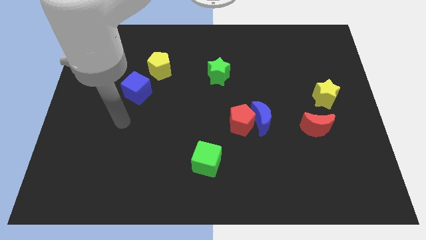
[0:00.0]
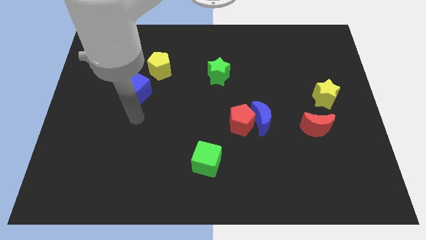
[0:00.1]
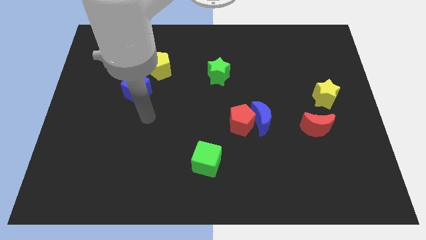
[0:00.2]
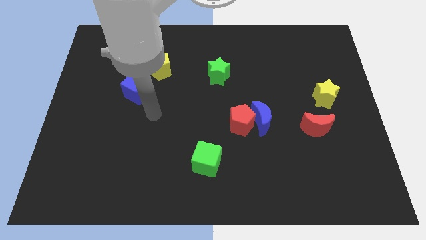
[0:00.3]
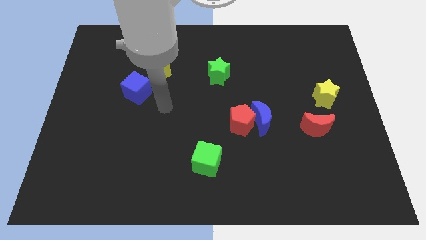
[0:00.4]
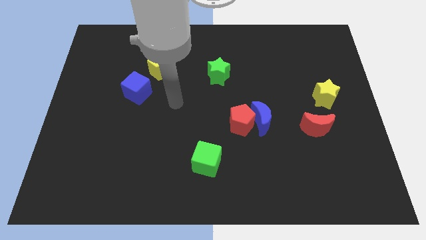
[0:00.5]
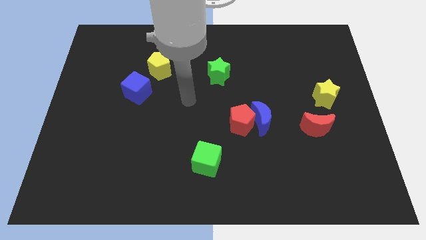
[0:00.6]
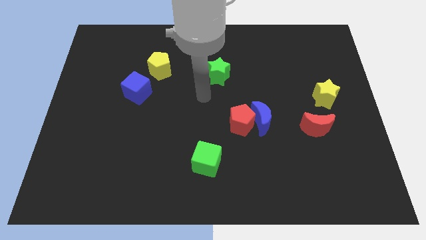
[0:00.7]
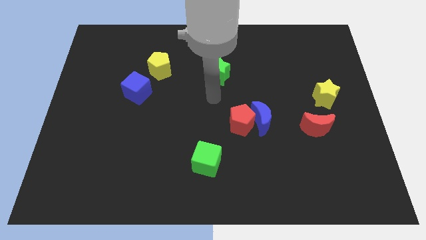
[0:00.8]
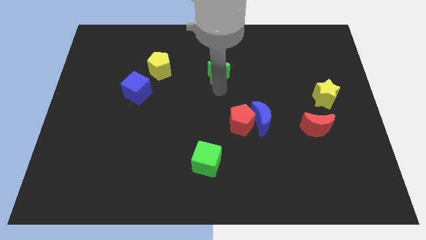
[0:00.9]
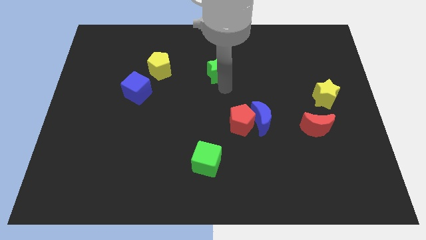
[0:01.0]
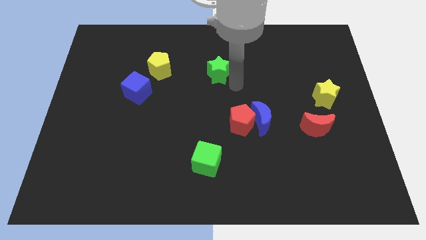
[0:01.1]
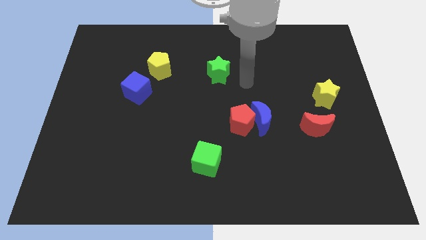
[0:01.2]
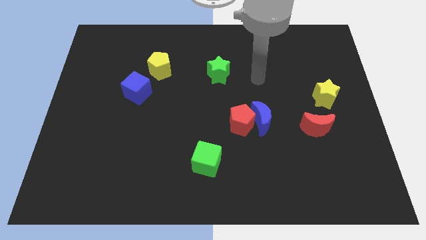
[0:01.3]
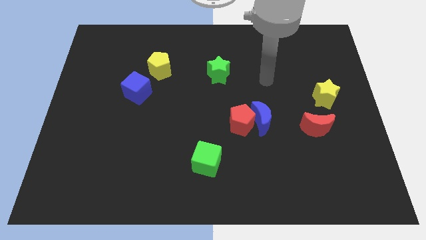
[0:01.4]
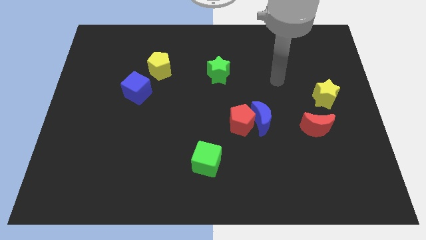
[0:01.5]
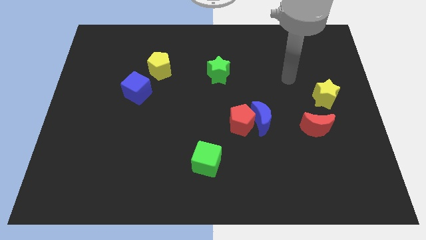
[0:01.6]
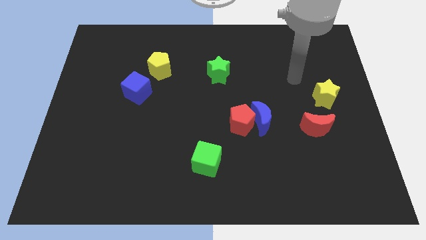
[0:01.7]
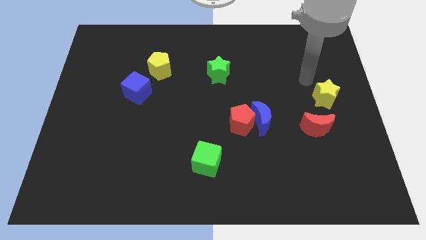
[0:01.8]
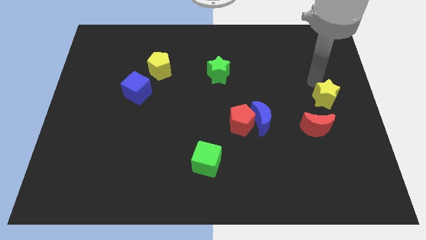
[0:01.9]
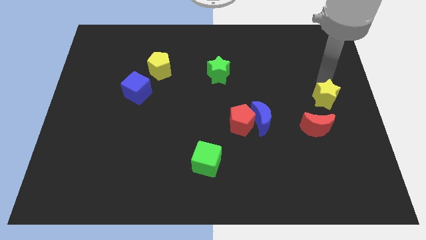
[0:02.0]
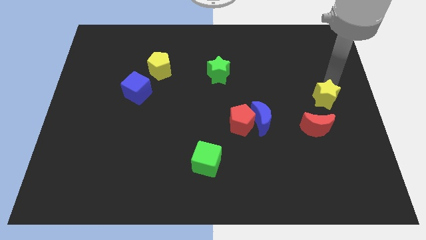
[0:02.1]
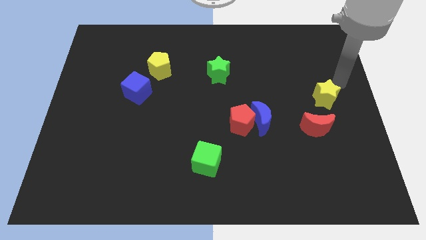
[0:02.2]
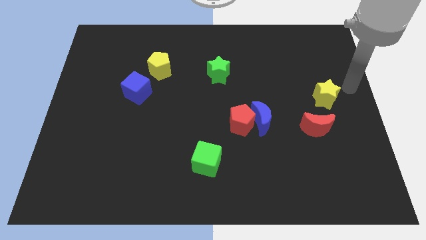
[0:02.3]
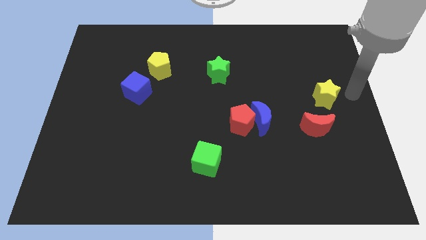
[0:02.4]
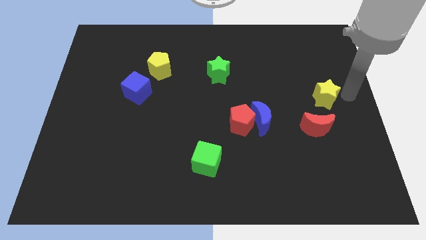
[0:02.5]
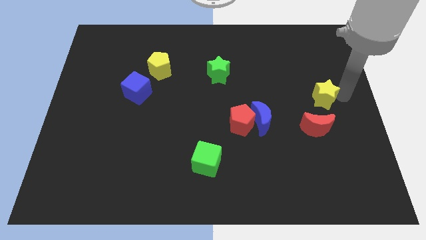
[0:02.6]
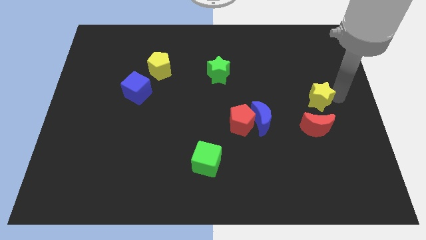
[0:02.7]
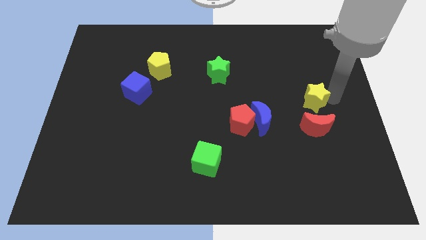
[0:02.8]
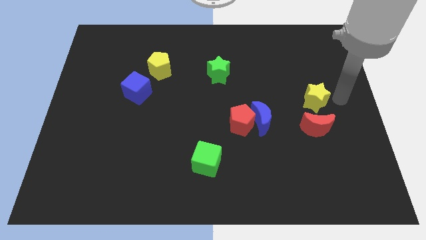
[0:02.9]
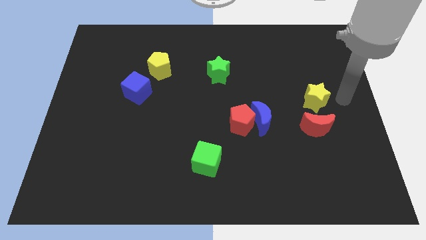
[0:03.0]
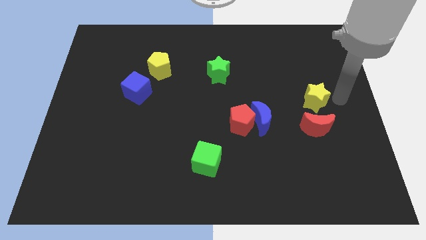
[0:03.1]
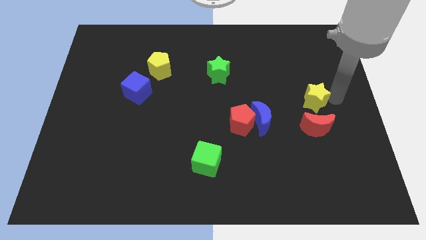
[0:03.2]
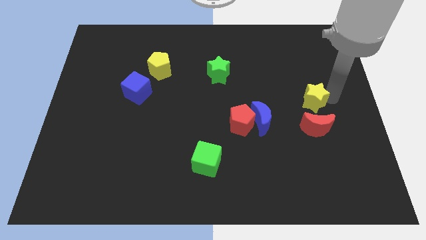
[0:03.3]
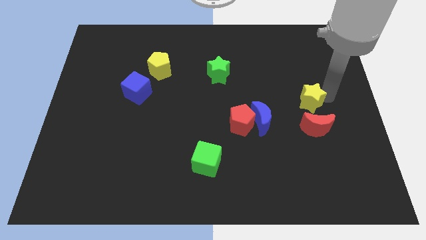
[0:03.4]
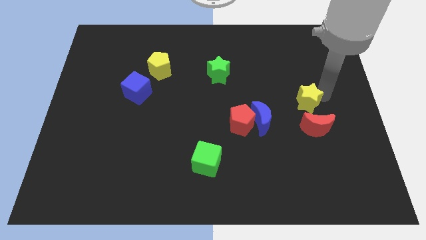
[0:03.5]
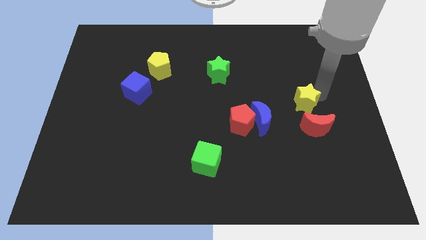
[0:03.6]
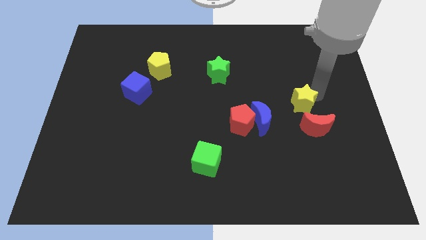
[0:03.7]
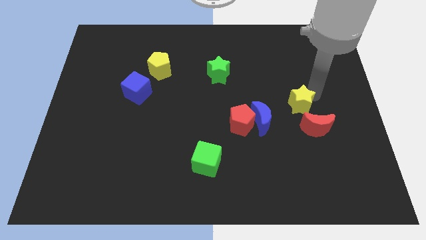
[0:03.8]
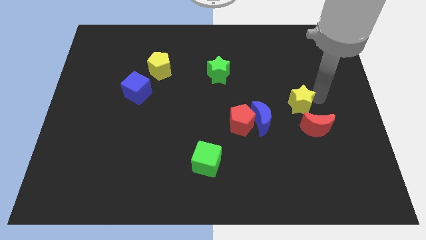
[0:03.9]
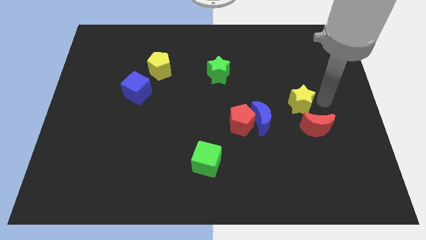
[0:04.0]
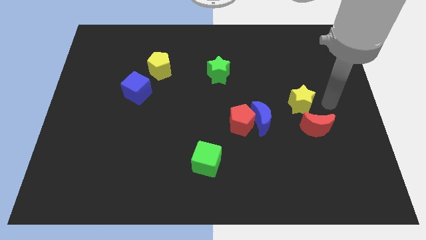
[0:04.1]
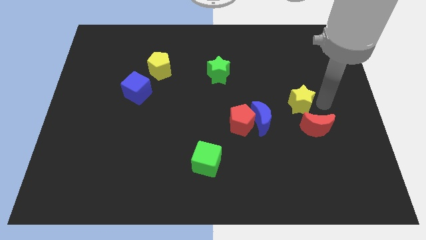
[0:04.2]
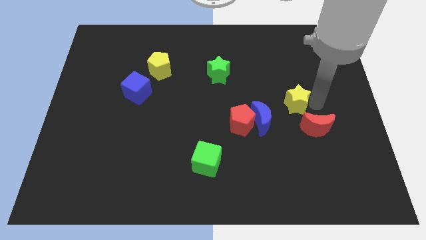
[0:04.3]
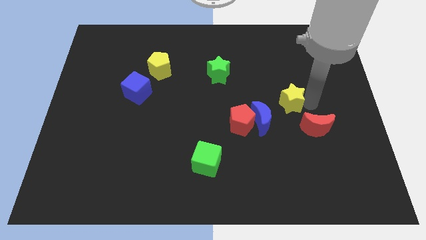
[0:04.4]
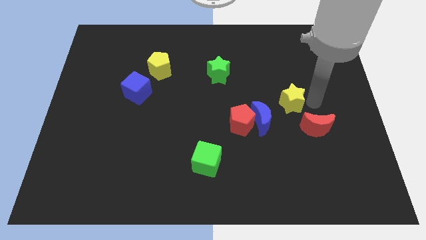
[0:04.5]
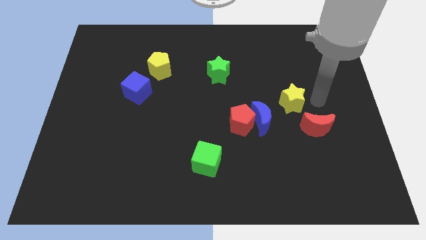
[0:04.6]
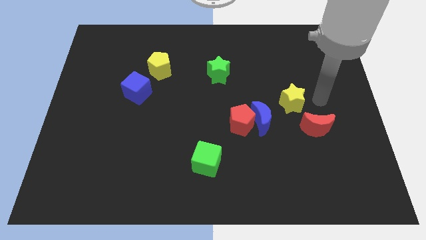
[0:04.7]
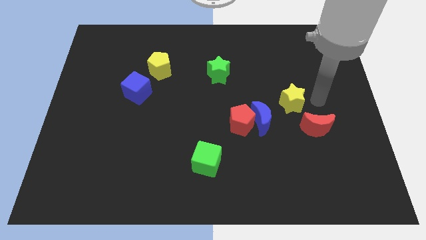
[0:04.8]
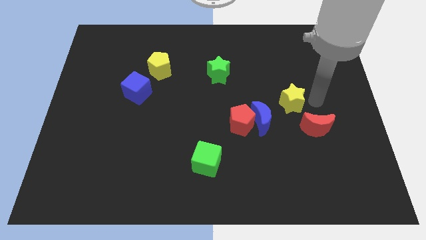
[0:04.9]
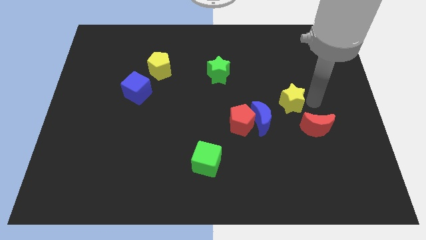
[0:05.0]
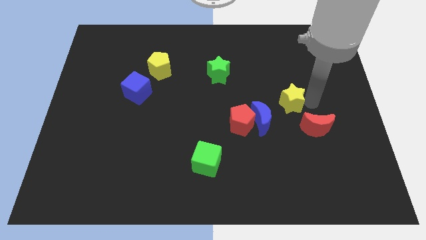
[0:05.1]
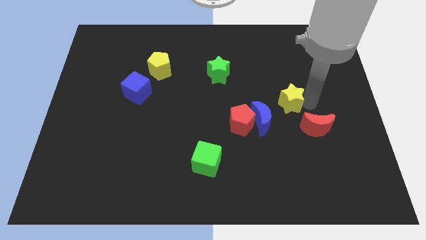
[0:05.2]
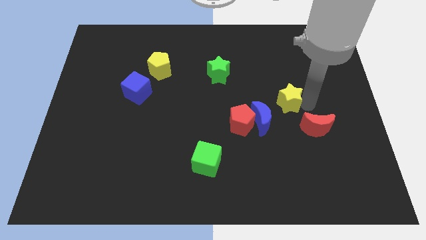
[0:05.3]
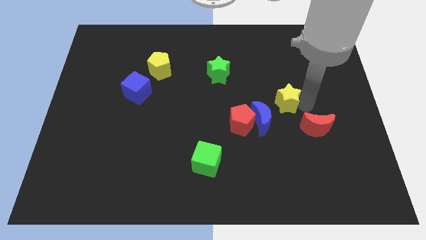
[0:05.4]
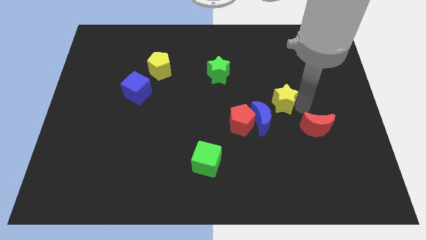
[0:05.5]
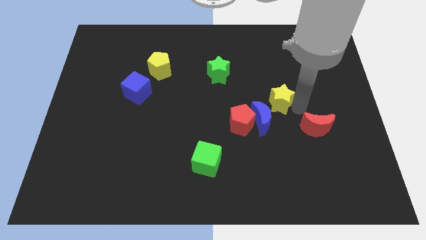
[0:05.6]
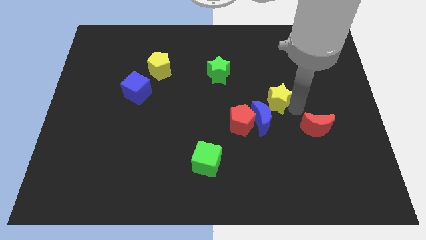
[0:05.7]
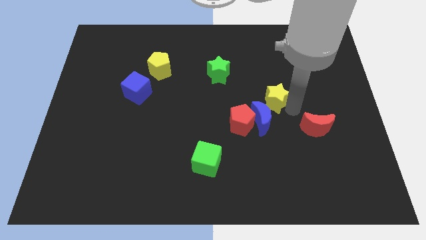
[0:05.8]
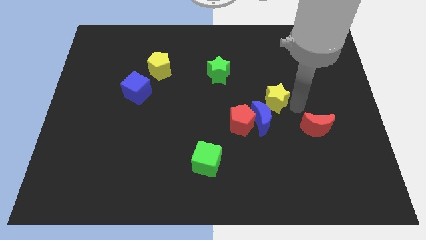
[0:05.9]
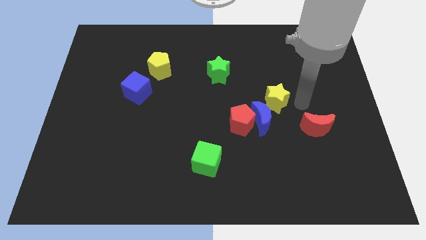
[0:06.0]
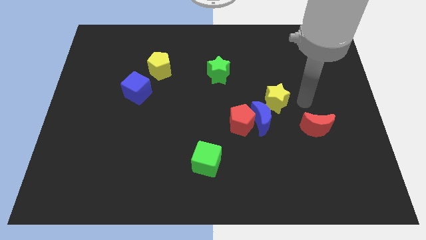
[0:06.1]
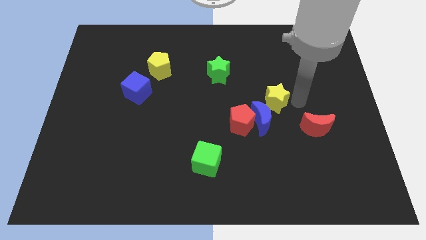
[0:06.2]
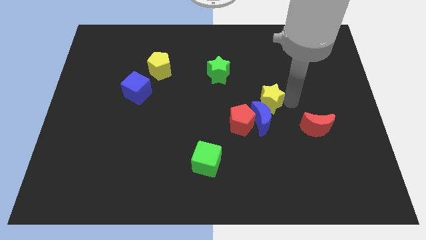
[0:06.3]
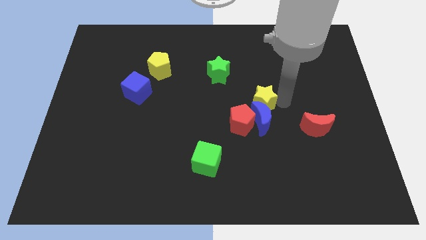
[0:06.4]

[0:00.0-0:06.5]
put the yellow star to the center of the board
